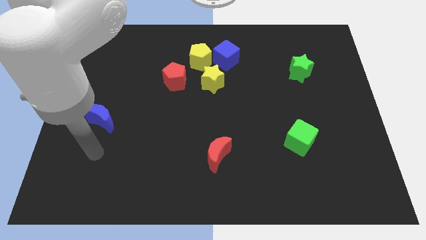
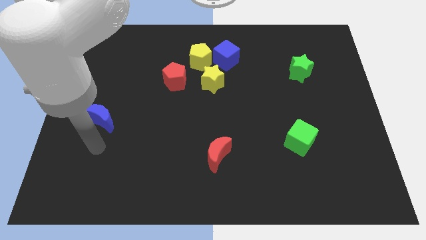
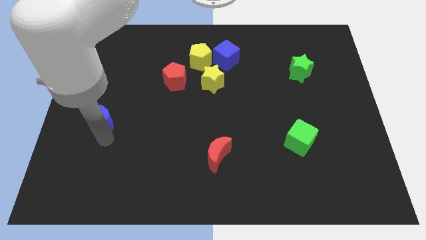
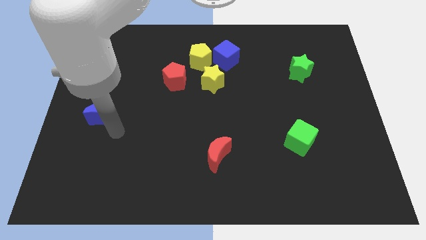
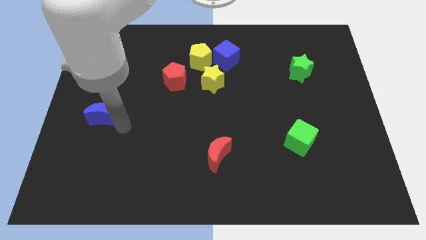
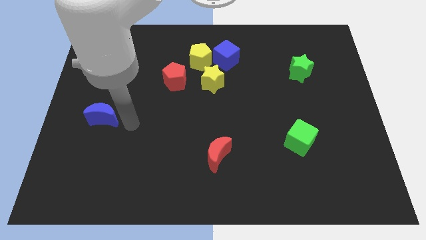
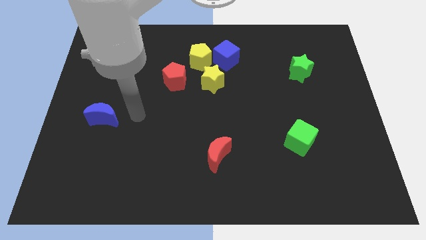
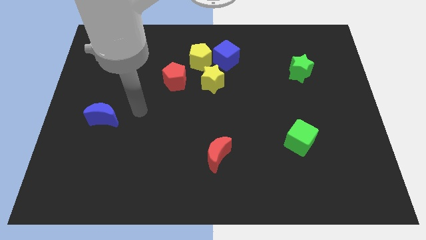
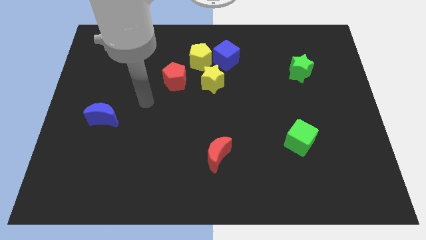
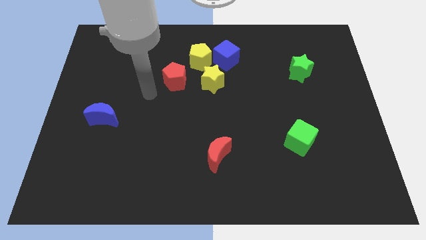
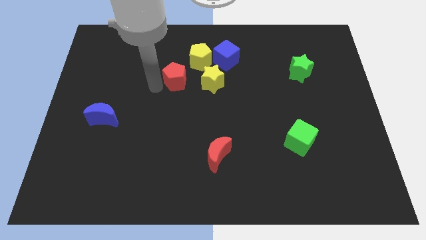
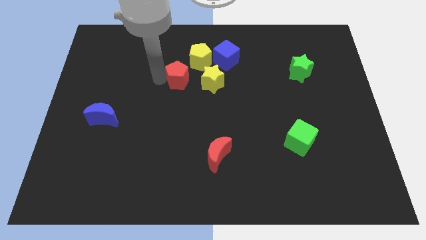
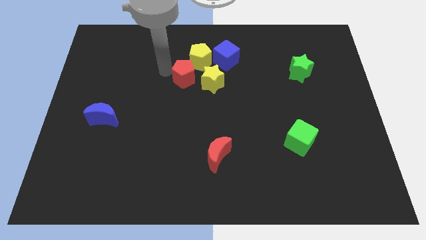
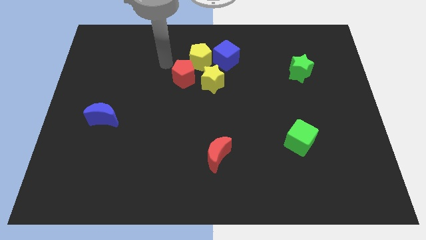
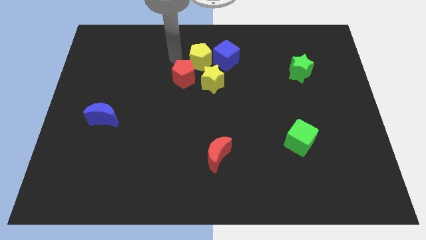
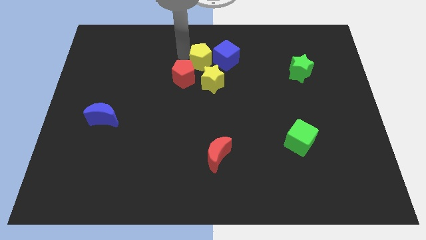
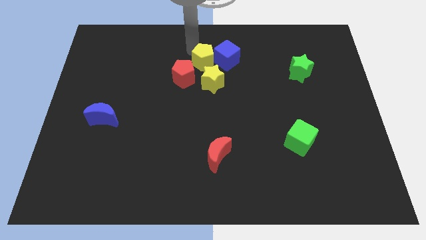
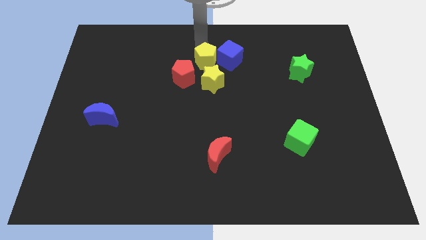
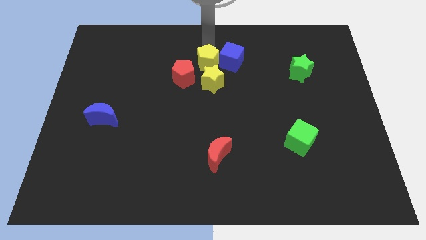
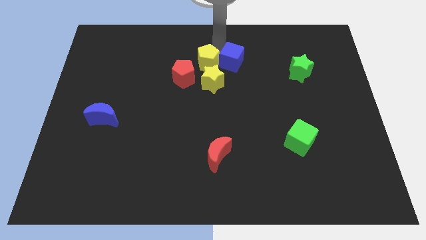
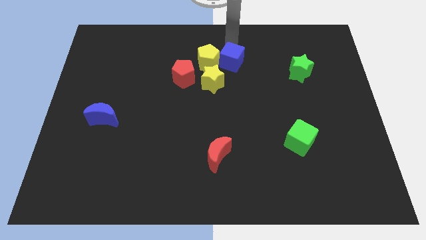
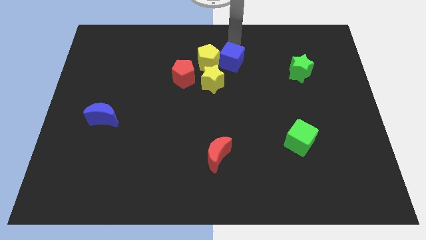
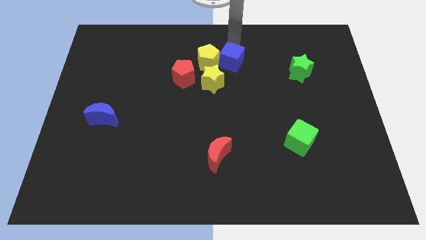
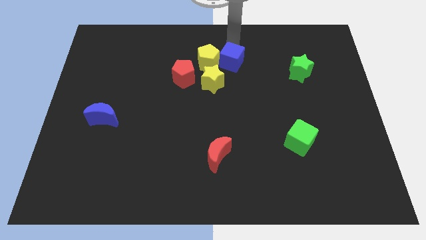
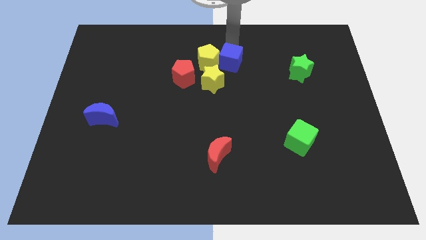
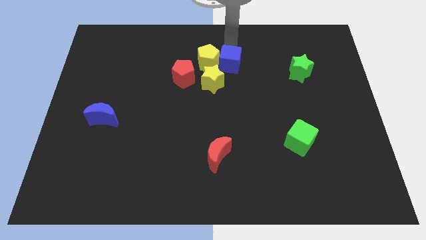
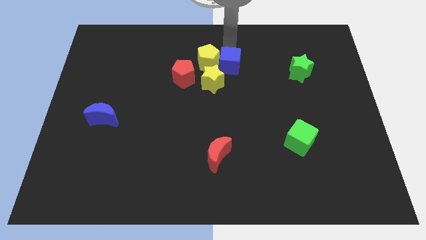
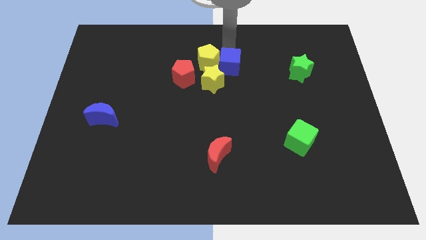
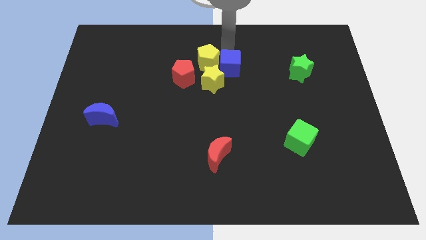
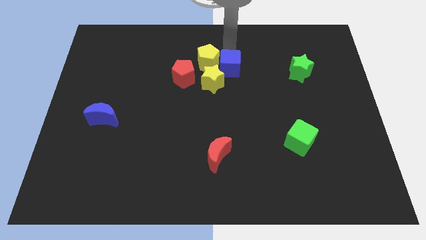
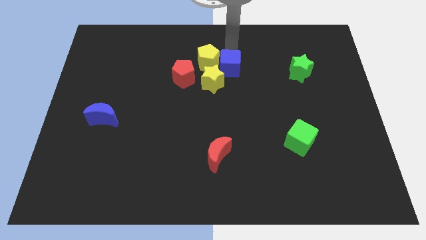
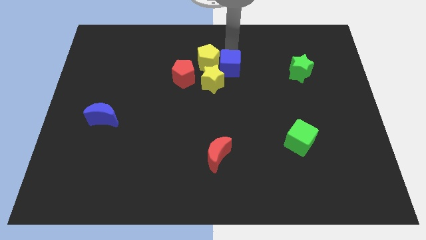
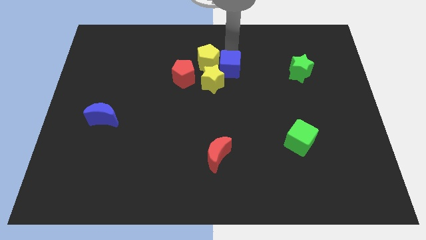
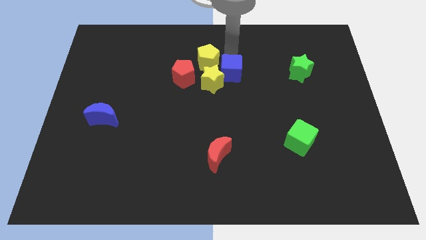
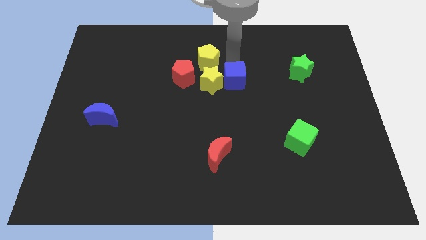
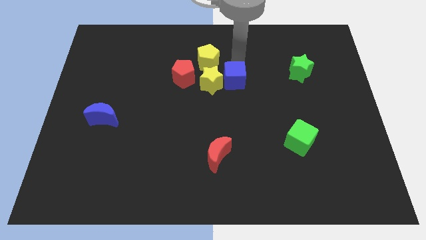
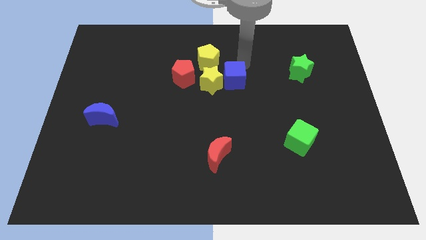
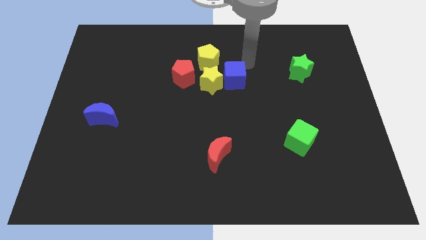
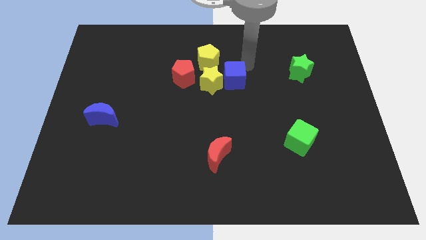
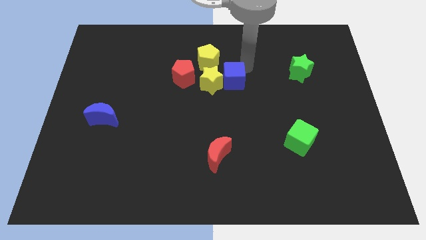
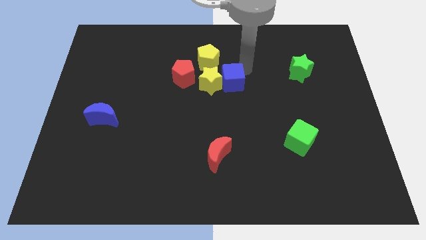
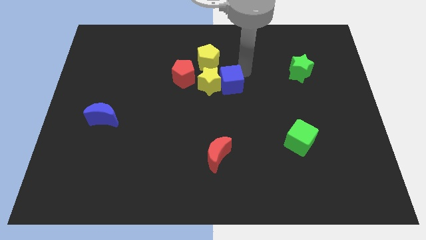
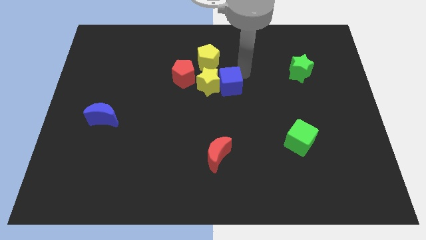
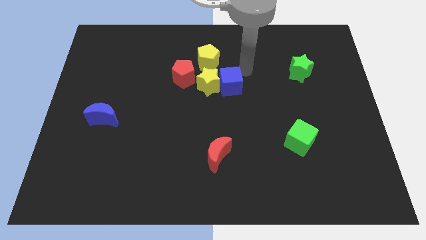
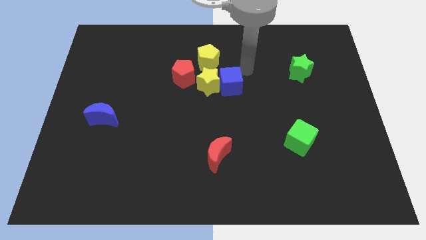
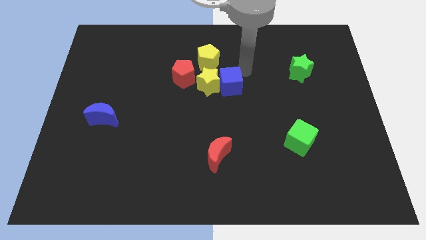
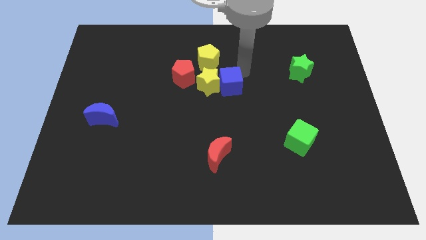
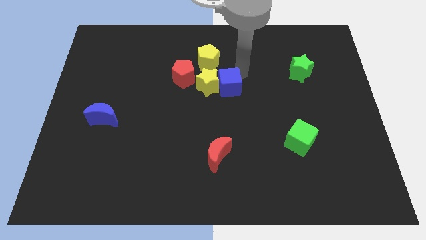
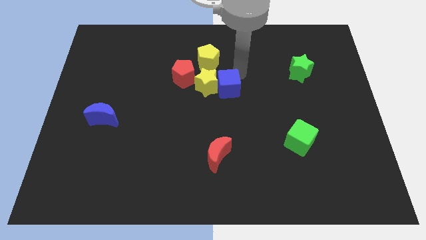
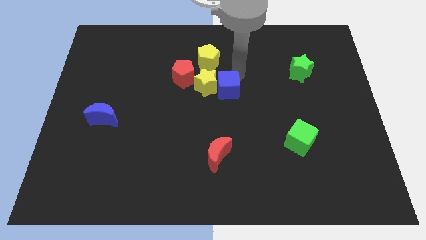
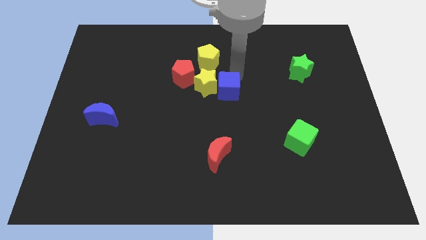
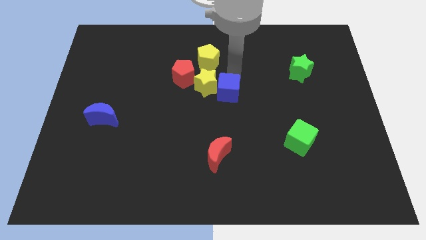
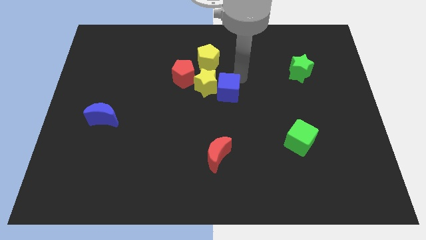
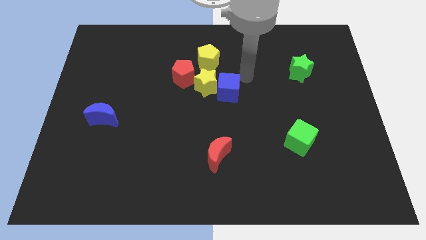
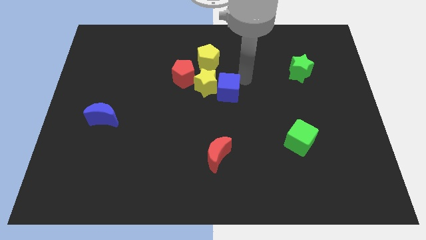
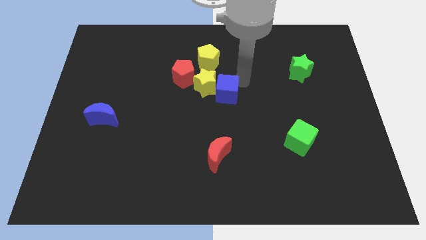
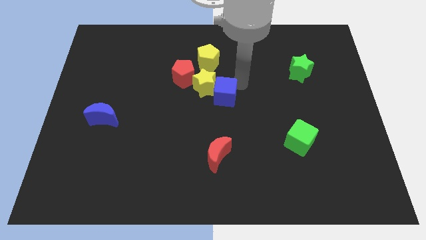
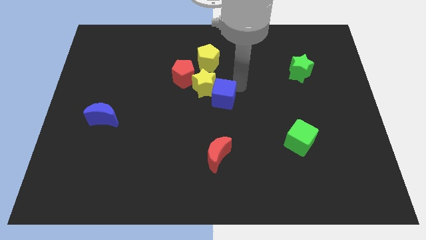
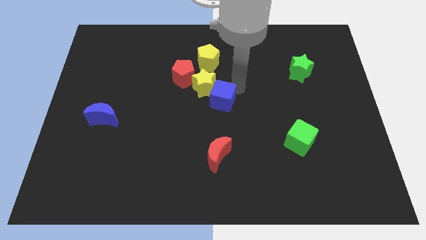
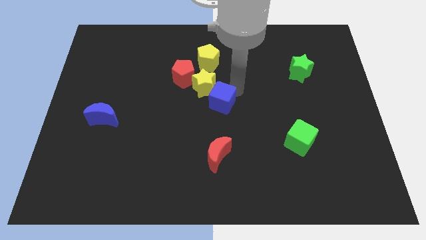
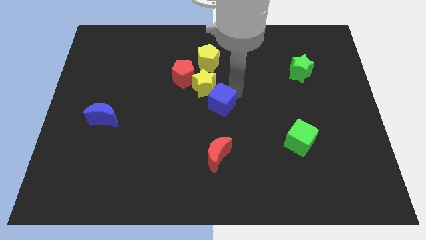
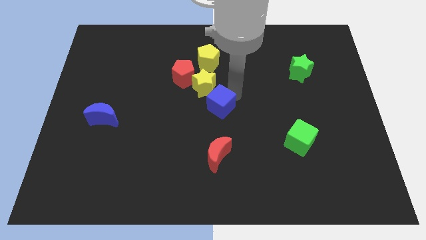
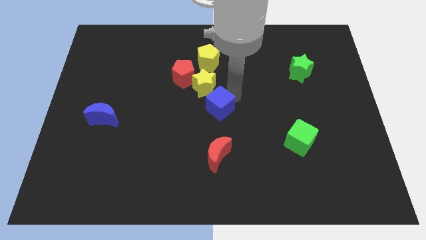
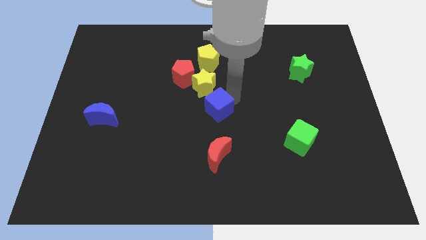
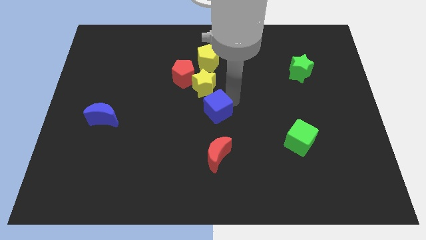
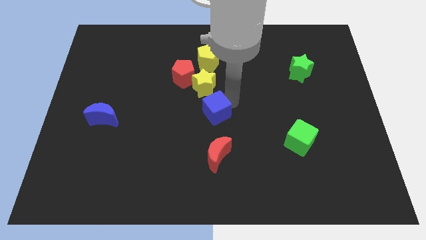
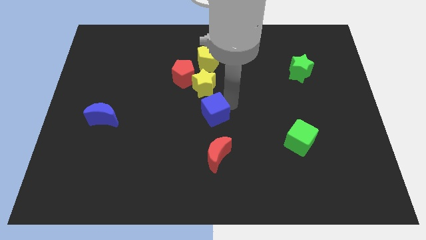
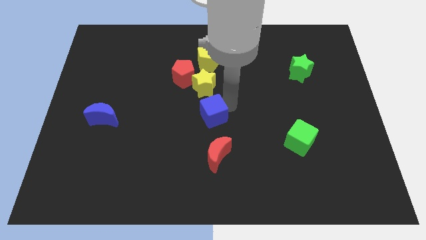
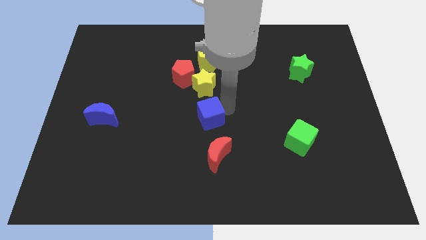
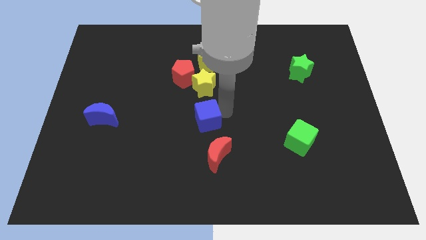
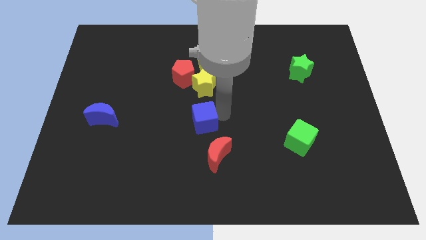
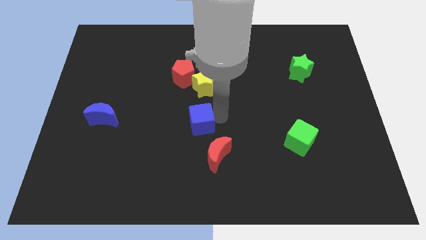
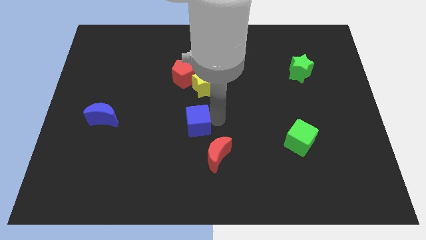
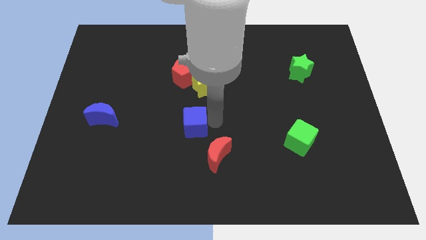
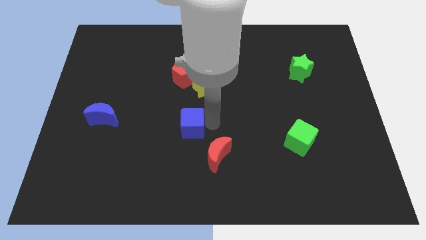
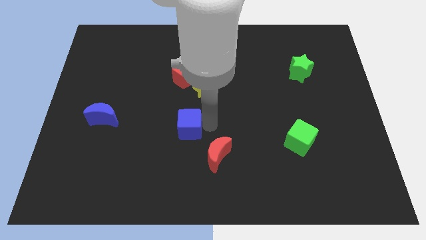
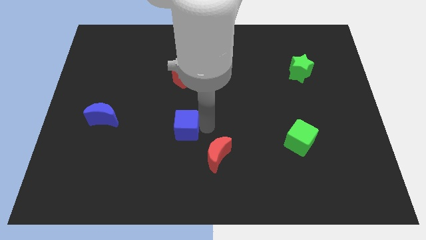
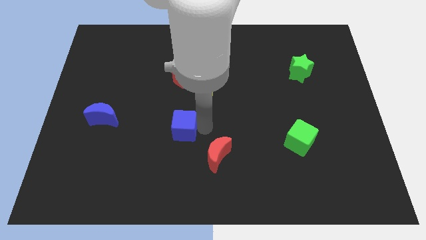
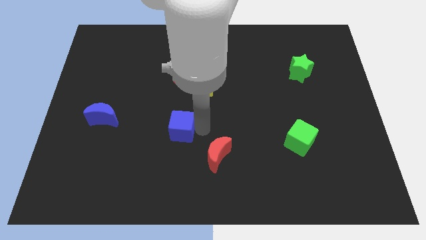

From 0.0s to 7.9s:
move the blue cube down and to the left
